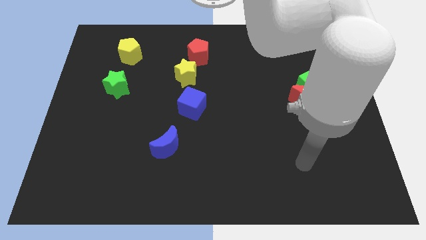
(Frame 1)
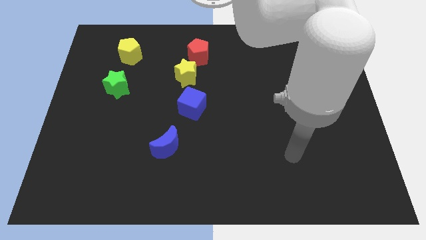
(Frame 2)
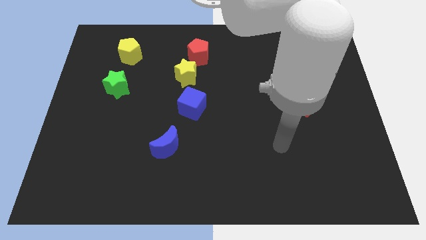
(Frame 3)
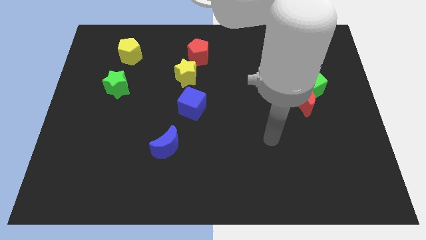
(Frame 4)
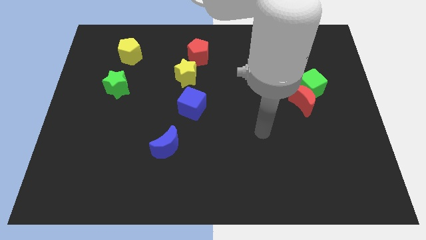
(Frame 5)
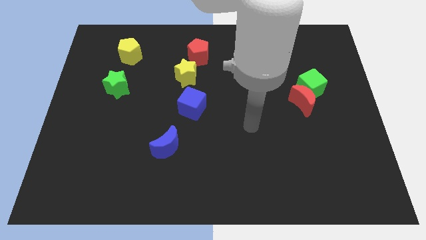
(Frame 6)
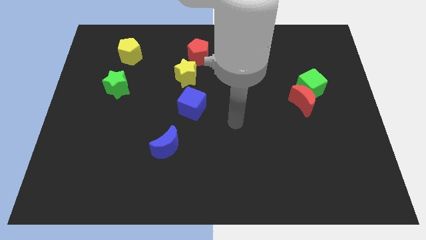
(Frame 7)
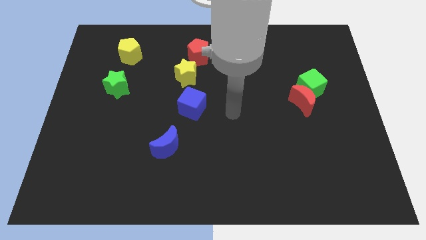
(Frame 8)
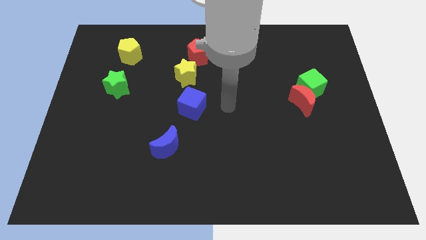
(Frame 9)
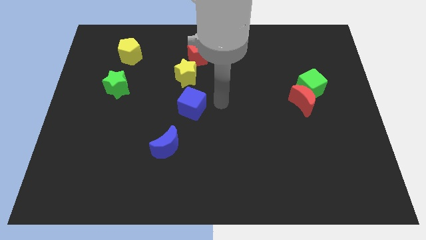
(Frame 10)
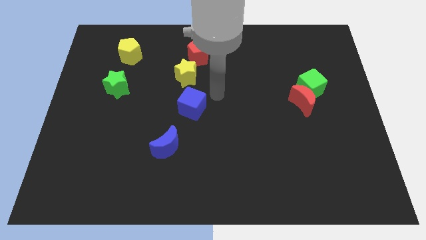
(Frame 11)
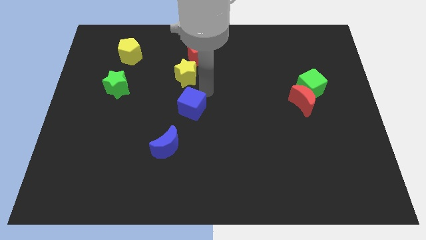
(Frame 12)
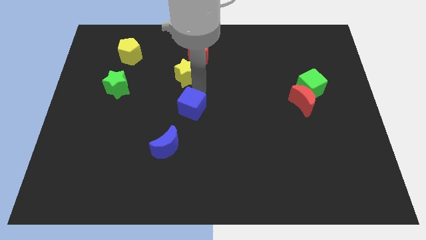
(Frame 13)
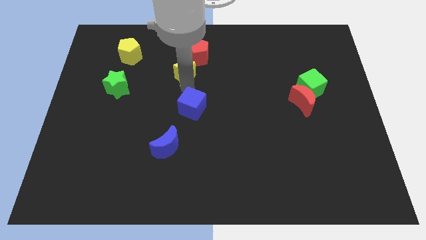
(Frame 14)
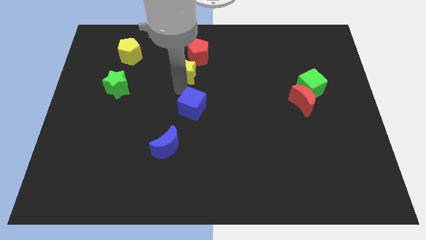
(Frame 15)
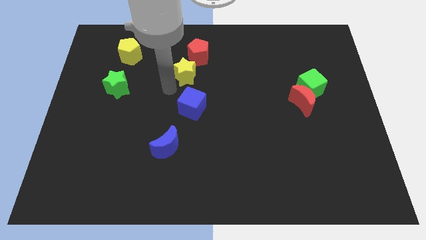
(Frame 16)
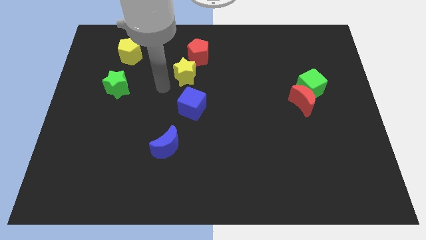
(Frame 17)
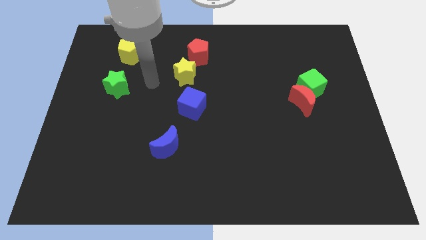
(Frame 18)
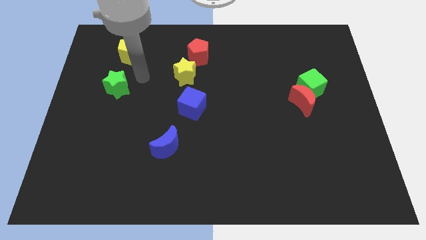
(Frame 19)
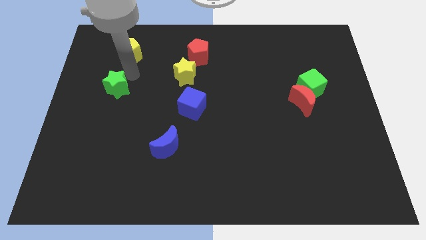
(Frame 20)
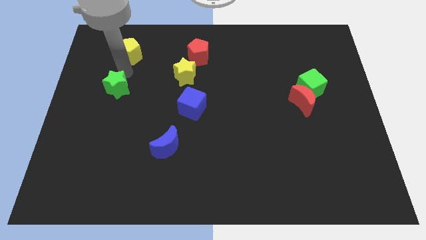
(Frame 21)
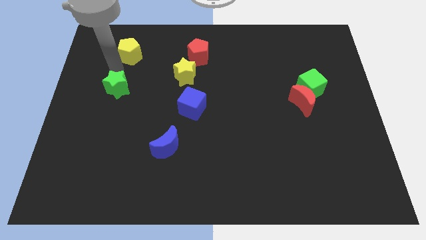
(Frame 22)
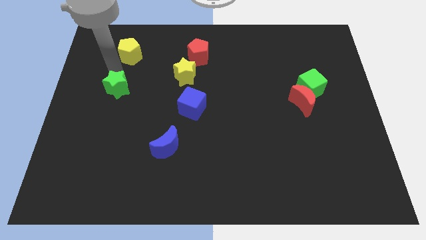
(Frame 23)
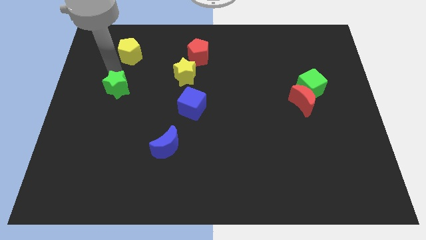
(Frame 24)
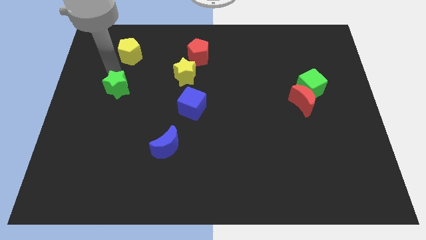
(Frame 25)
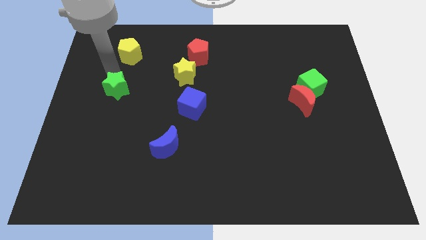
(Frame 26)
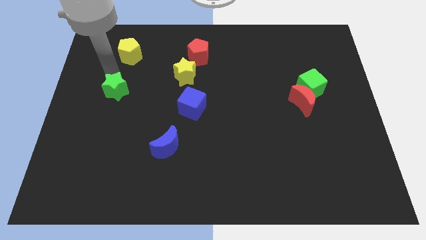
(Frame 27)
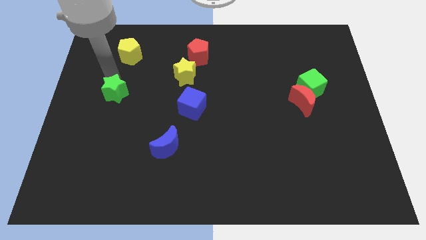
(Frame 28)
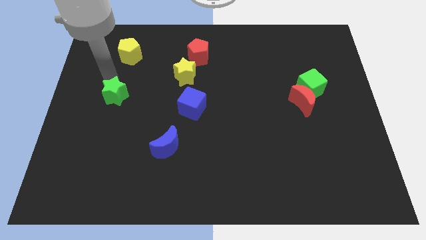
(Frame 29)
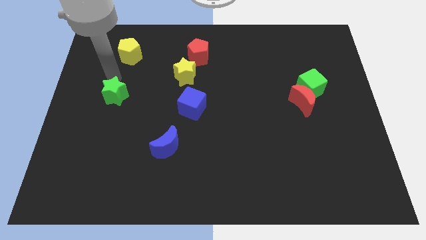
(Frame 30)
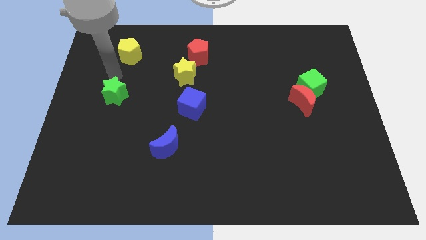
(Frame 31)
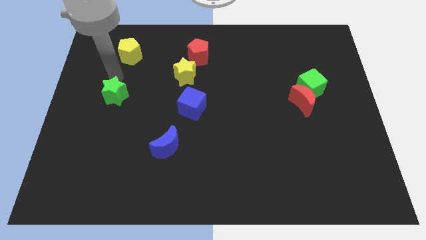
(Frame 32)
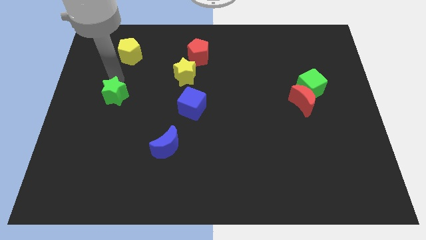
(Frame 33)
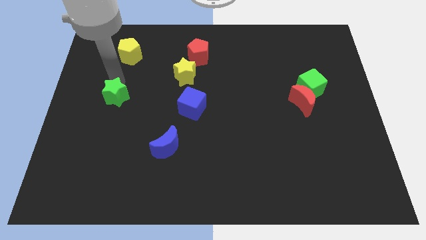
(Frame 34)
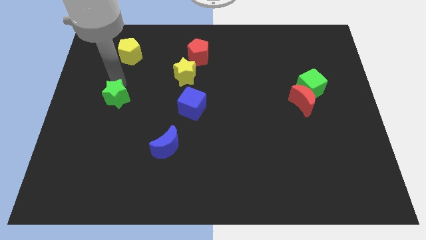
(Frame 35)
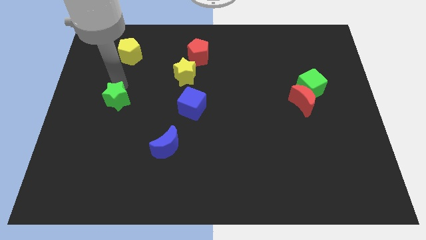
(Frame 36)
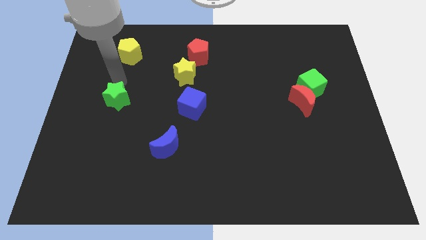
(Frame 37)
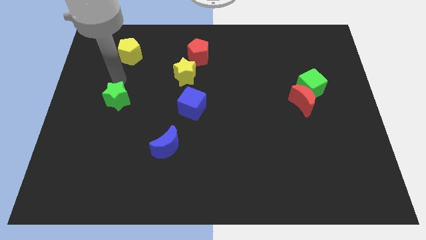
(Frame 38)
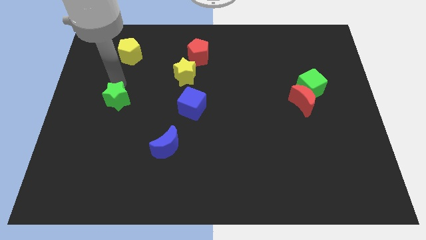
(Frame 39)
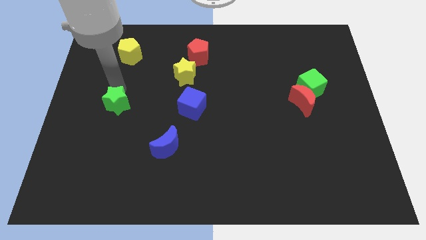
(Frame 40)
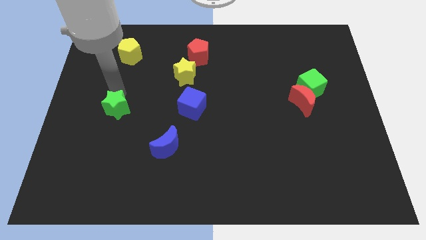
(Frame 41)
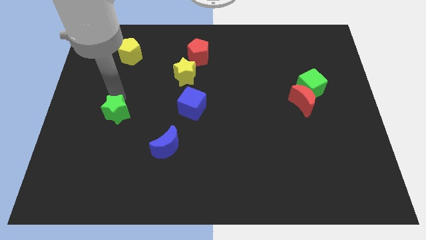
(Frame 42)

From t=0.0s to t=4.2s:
move the green star downwards a little bit

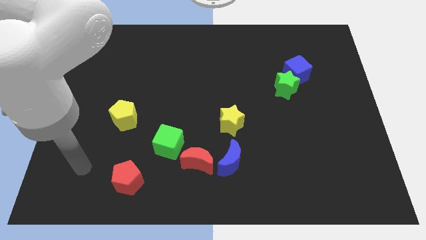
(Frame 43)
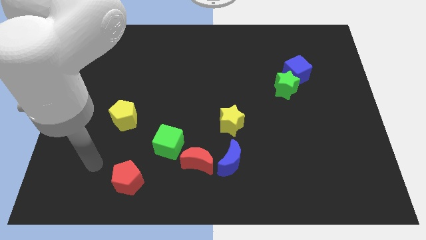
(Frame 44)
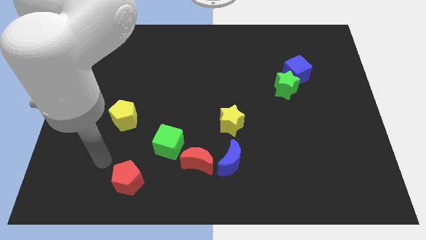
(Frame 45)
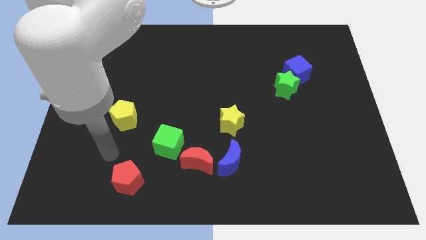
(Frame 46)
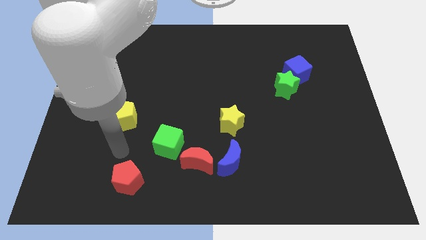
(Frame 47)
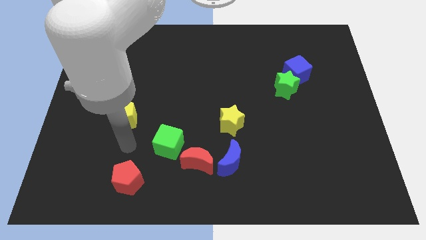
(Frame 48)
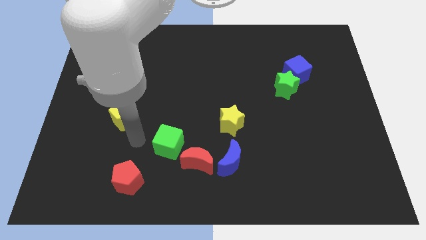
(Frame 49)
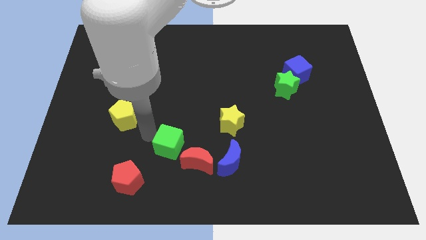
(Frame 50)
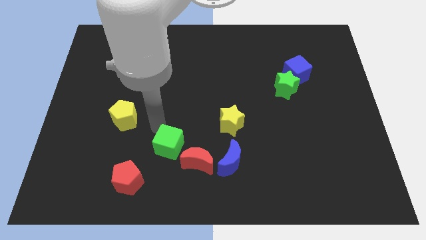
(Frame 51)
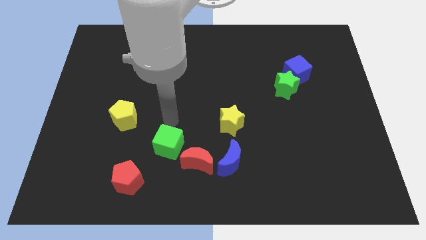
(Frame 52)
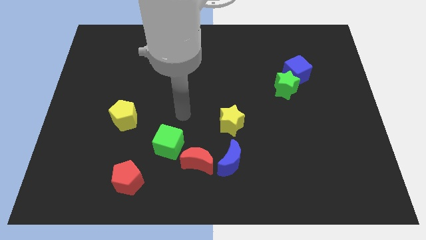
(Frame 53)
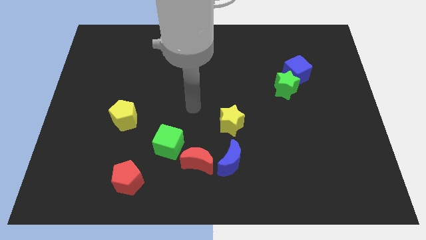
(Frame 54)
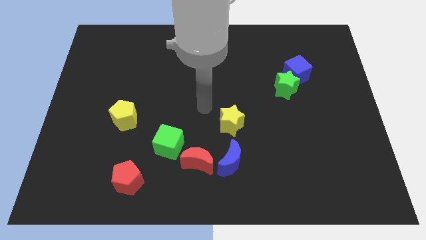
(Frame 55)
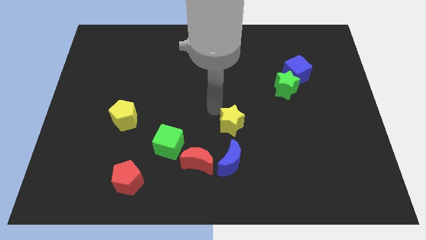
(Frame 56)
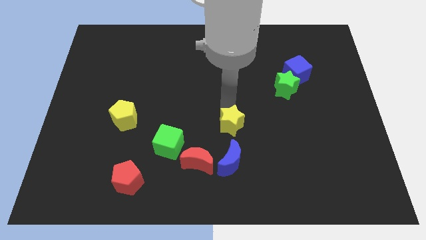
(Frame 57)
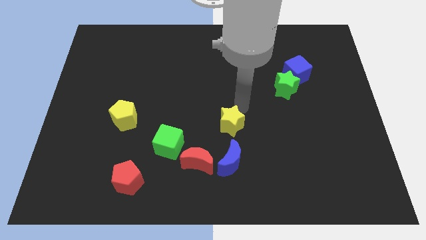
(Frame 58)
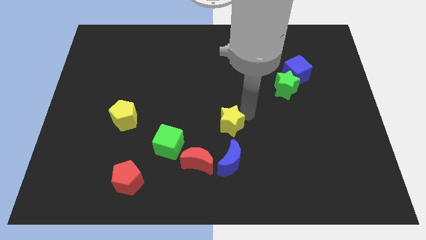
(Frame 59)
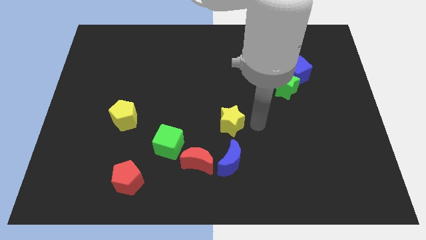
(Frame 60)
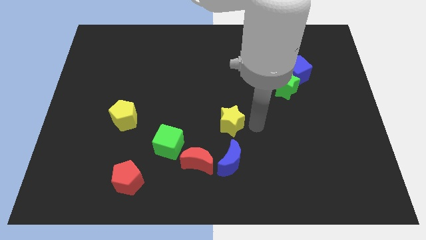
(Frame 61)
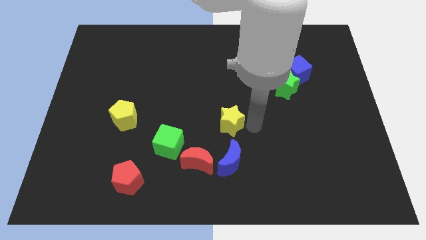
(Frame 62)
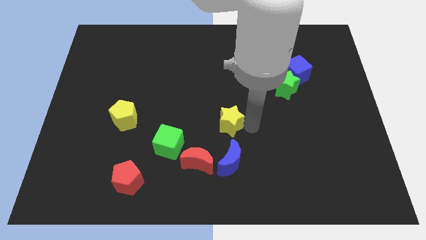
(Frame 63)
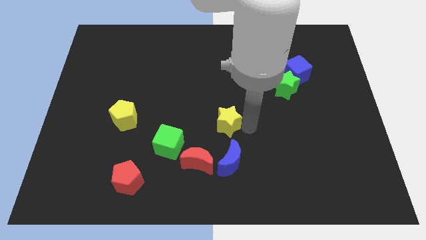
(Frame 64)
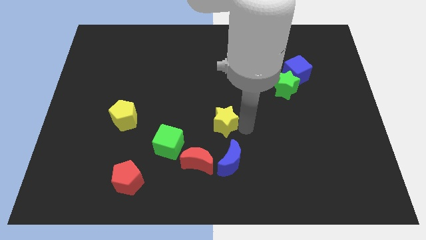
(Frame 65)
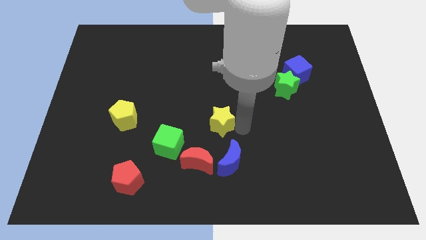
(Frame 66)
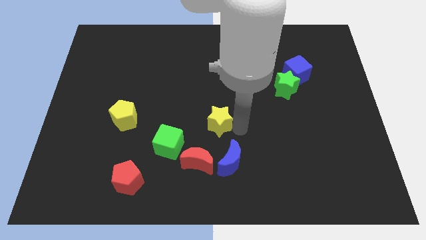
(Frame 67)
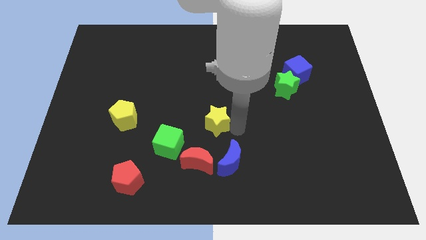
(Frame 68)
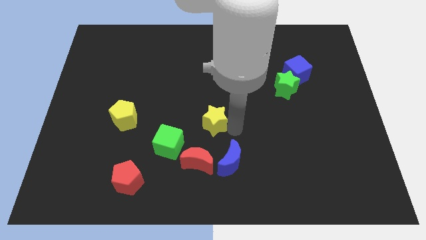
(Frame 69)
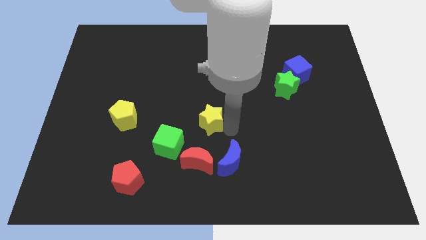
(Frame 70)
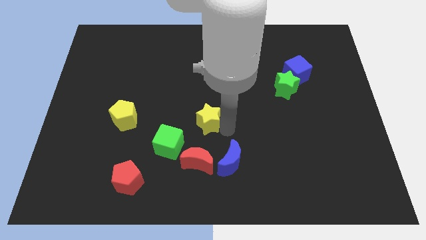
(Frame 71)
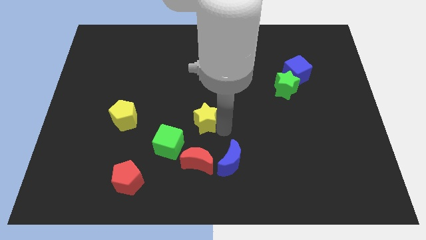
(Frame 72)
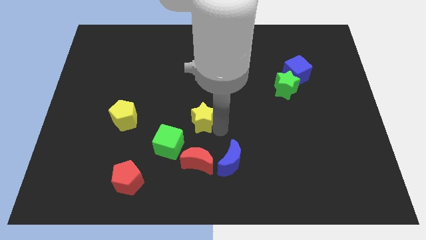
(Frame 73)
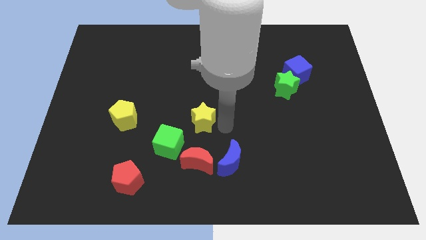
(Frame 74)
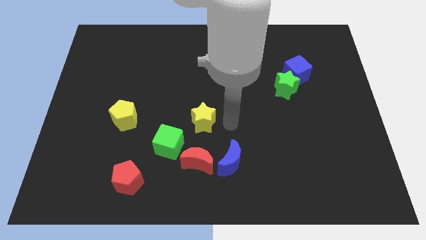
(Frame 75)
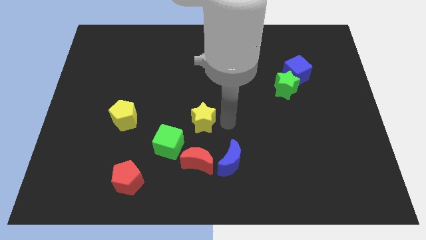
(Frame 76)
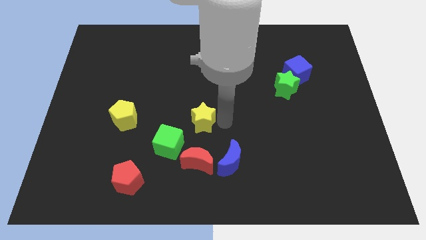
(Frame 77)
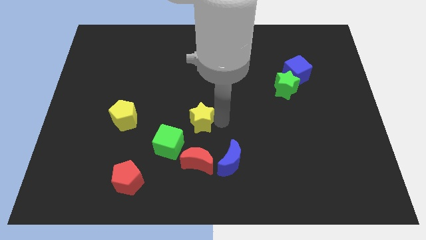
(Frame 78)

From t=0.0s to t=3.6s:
move the yellow star to the left a little

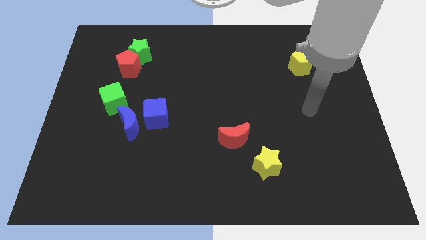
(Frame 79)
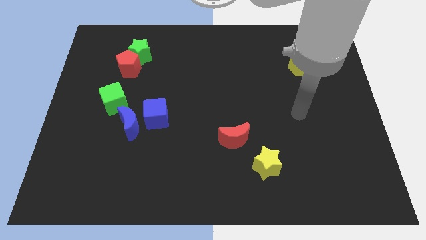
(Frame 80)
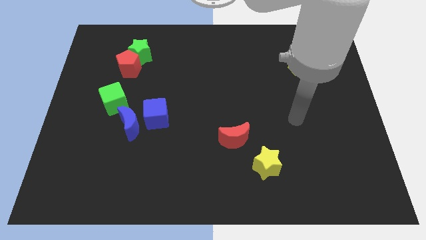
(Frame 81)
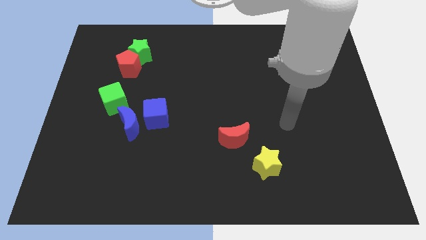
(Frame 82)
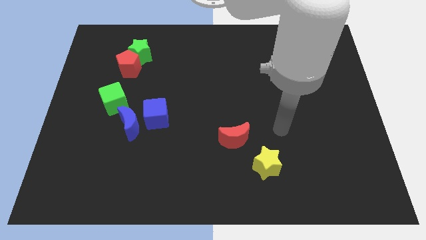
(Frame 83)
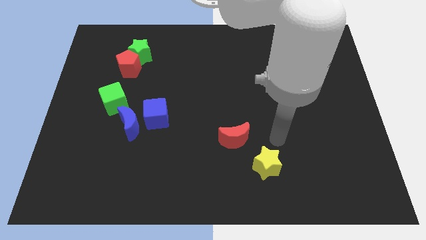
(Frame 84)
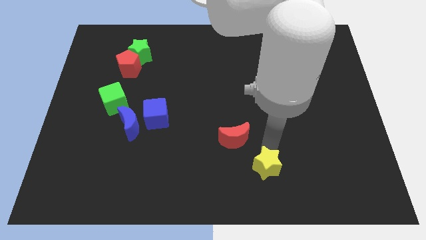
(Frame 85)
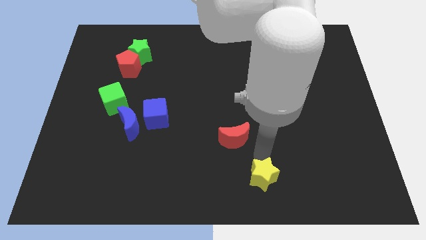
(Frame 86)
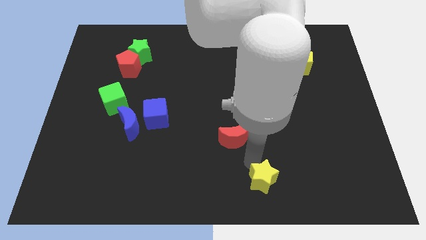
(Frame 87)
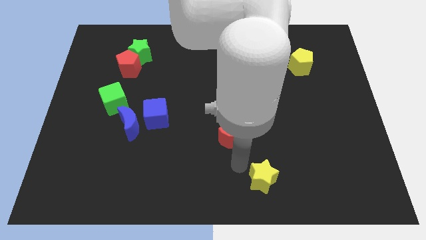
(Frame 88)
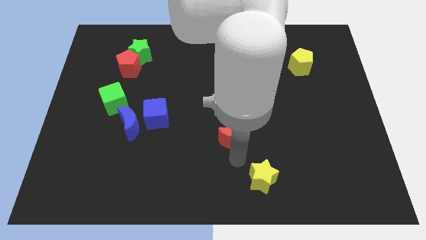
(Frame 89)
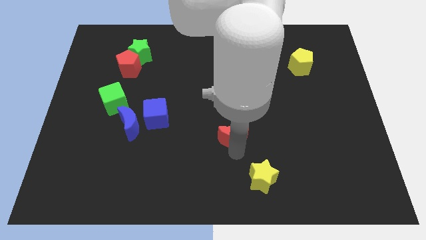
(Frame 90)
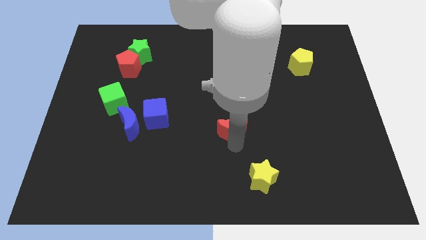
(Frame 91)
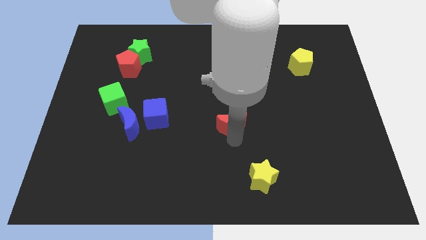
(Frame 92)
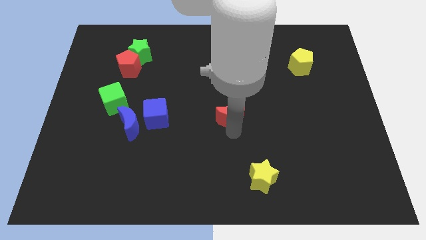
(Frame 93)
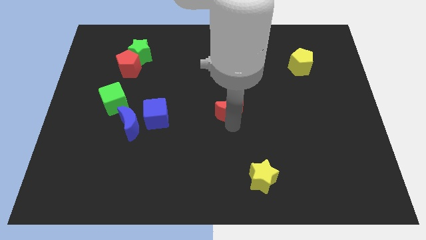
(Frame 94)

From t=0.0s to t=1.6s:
move the red moon somewhat upwards
